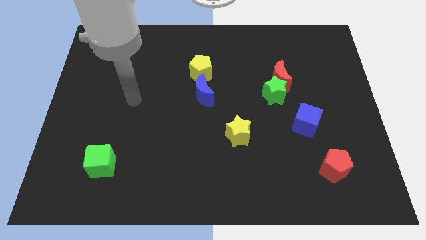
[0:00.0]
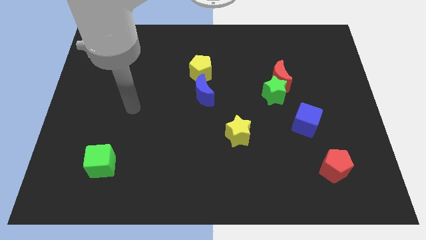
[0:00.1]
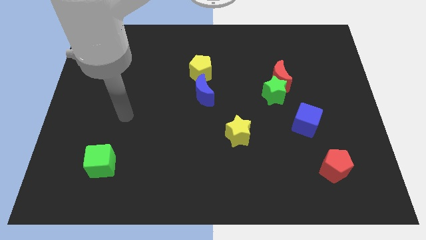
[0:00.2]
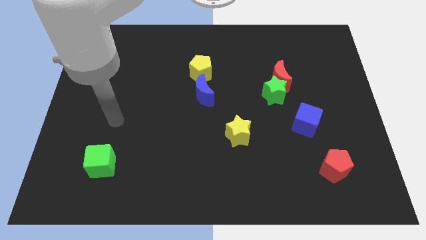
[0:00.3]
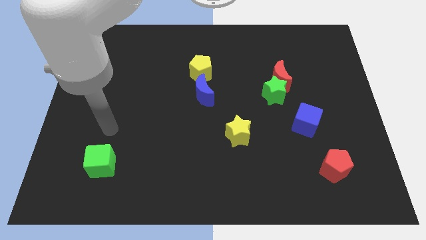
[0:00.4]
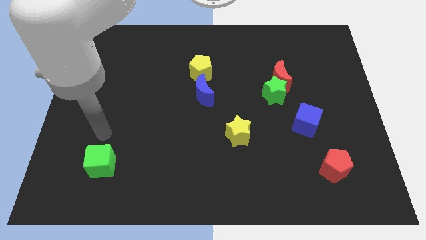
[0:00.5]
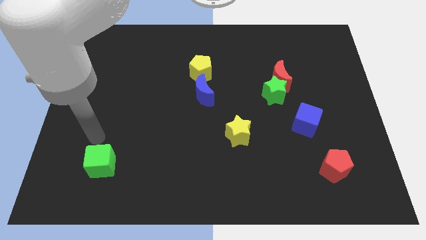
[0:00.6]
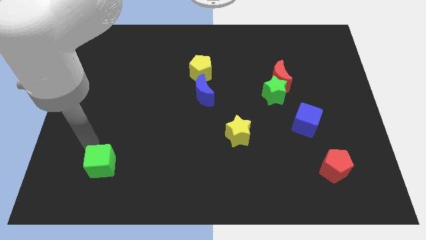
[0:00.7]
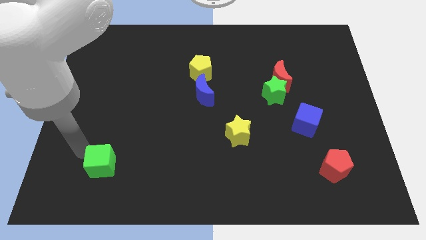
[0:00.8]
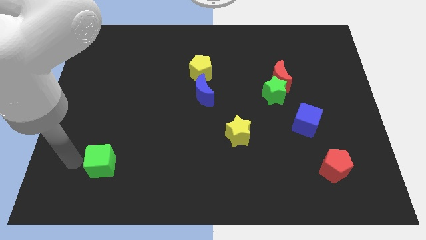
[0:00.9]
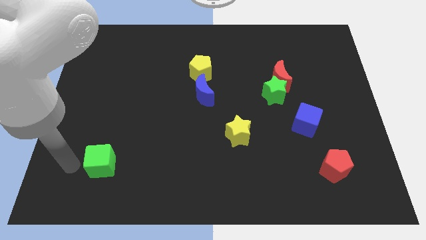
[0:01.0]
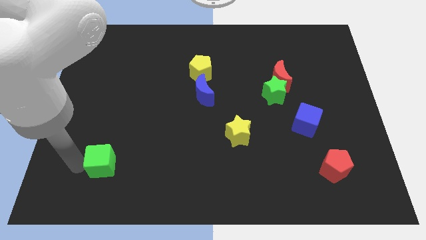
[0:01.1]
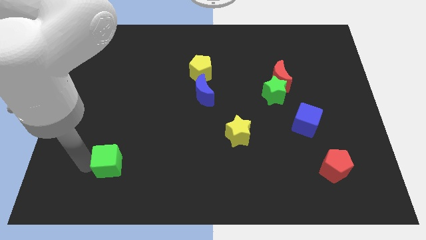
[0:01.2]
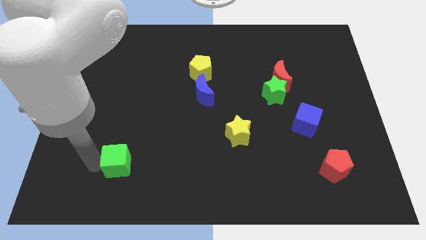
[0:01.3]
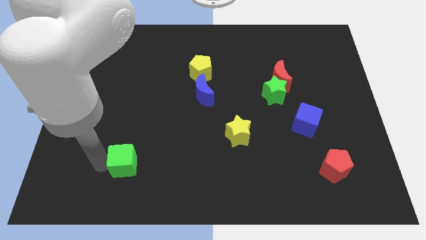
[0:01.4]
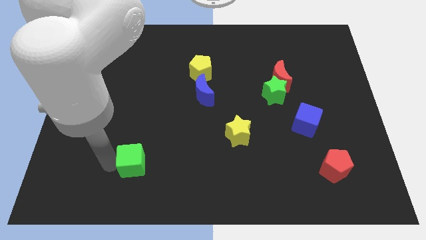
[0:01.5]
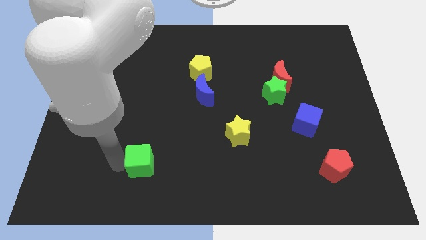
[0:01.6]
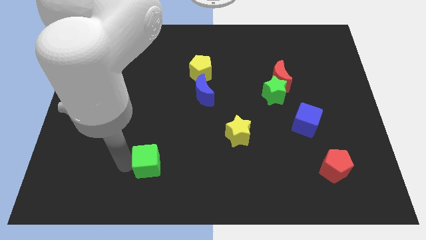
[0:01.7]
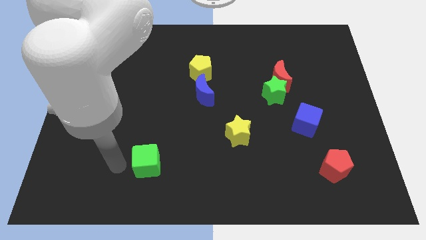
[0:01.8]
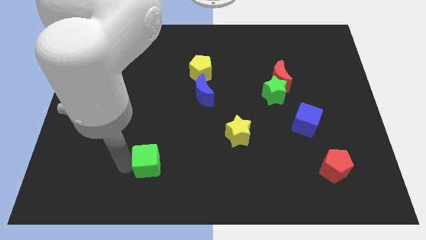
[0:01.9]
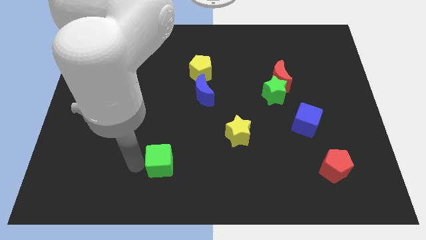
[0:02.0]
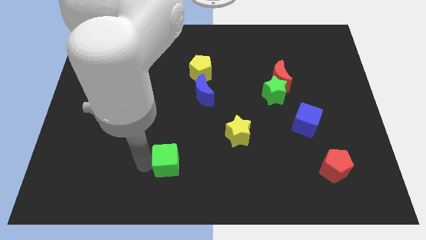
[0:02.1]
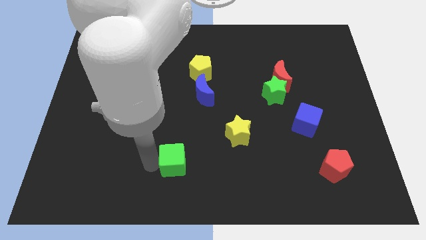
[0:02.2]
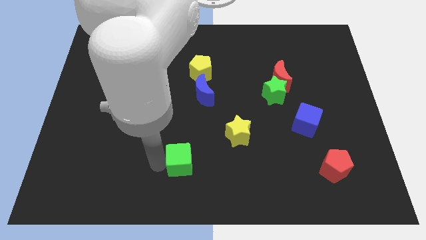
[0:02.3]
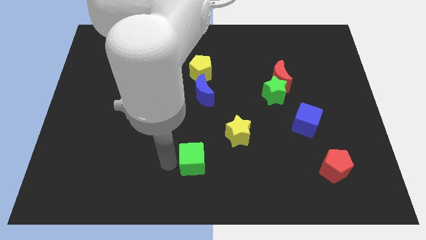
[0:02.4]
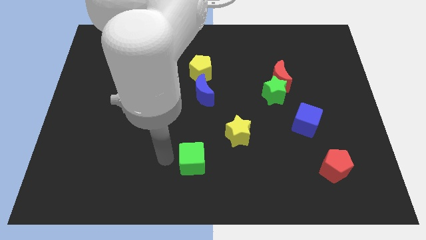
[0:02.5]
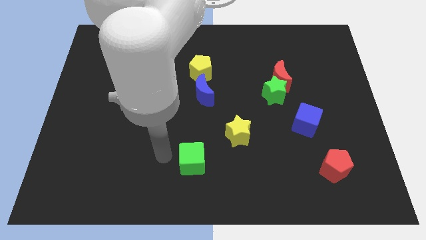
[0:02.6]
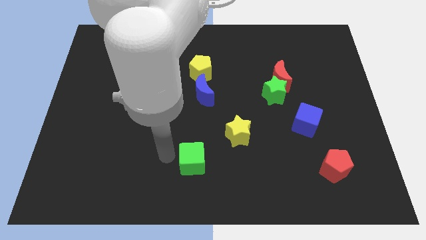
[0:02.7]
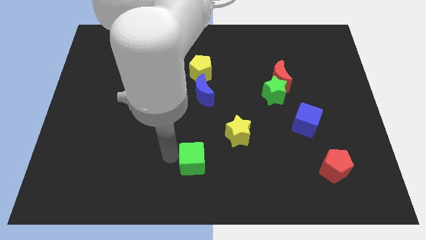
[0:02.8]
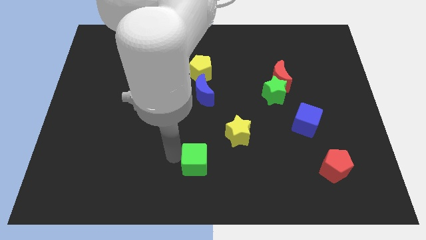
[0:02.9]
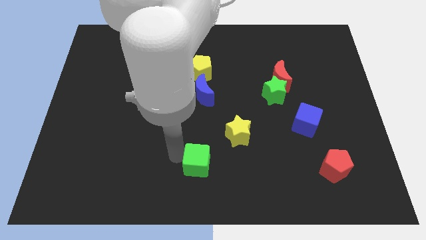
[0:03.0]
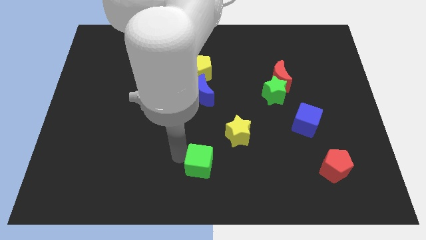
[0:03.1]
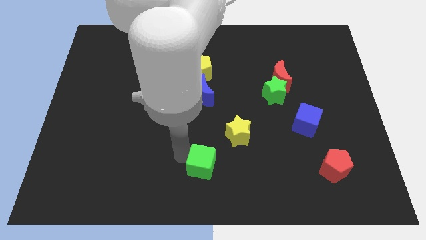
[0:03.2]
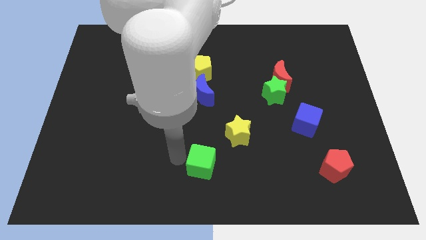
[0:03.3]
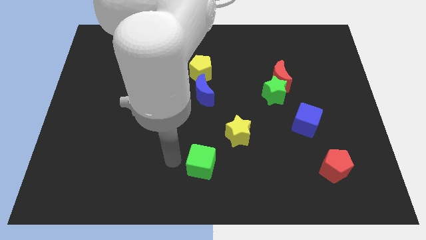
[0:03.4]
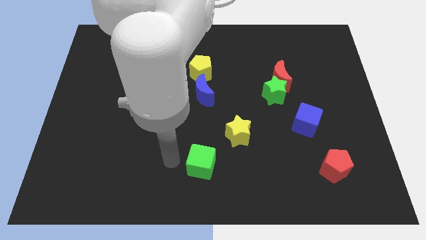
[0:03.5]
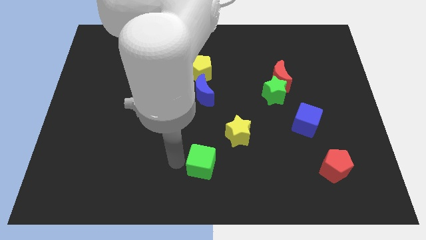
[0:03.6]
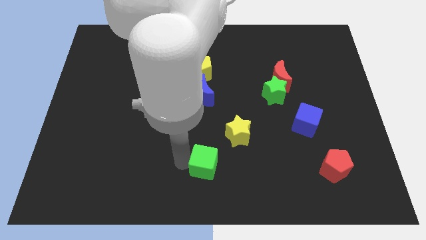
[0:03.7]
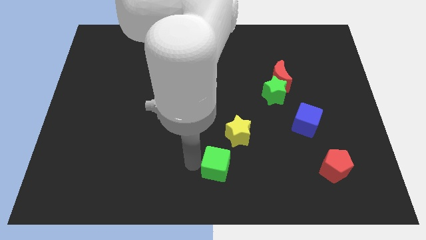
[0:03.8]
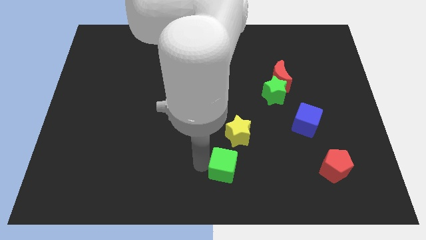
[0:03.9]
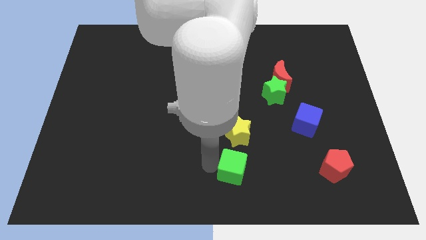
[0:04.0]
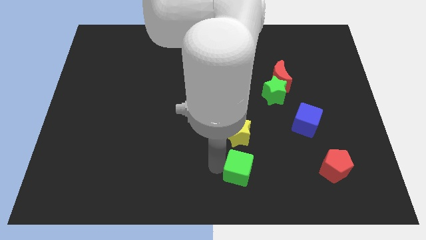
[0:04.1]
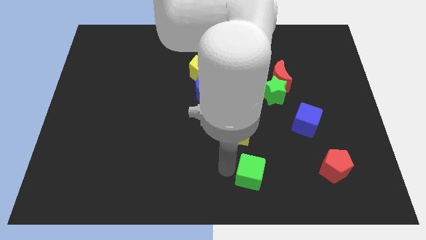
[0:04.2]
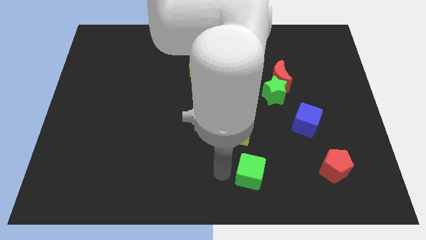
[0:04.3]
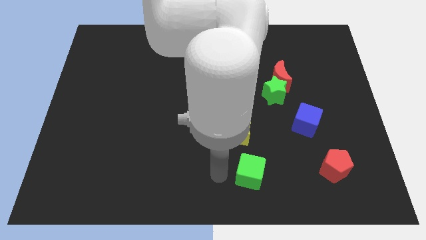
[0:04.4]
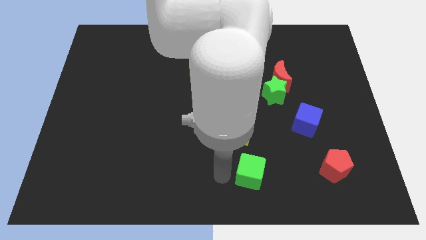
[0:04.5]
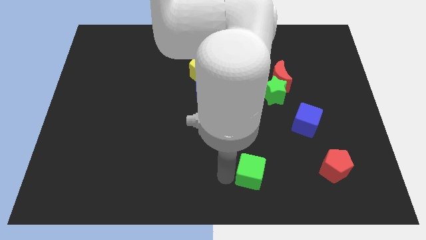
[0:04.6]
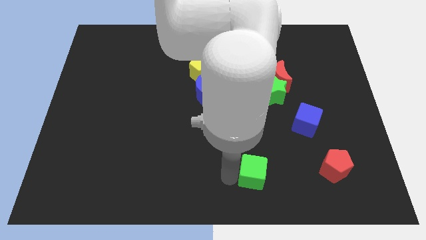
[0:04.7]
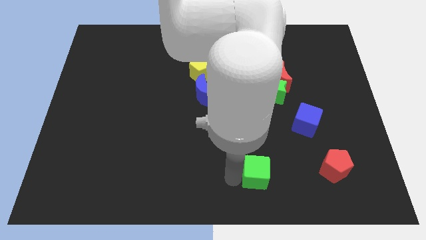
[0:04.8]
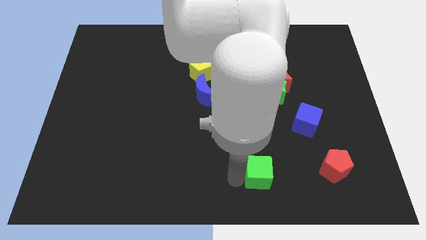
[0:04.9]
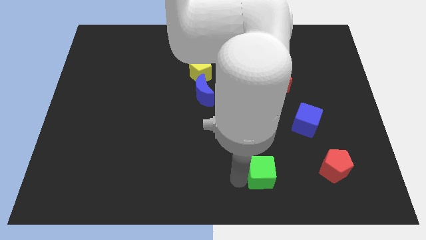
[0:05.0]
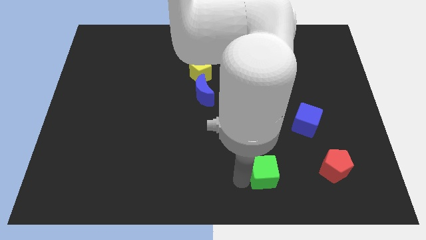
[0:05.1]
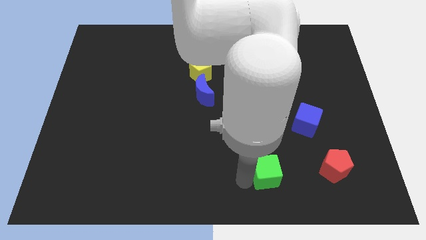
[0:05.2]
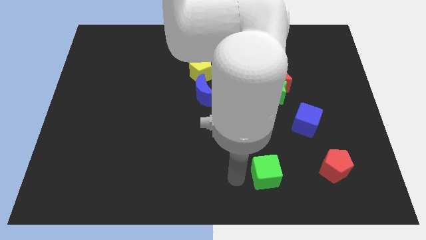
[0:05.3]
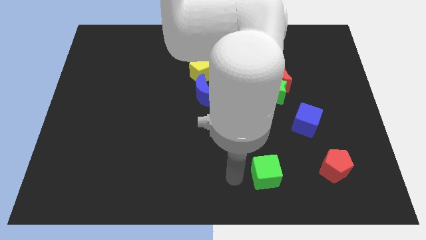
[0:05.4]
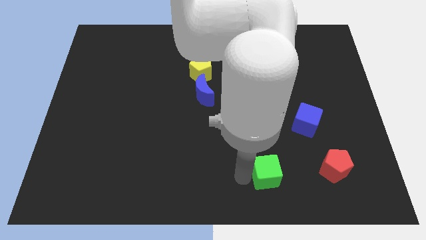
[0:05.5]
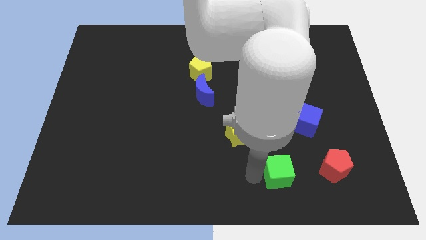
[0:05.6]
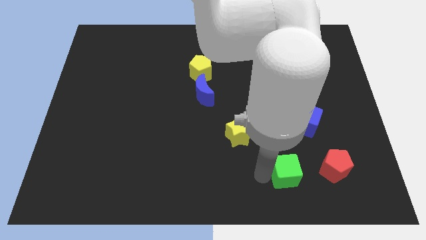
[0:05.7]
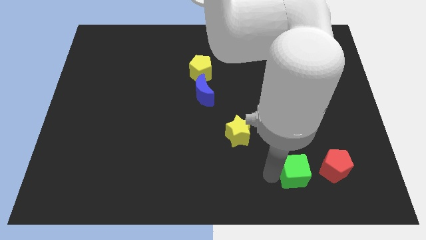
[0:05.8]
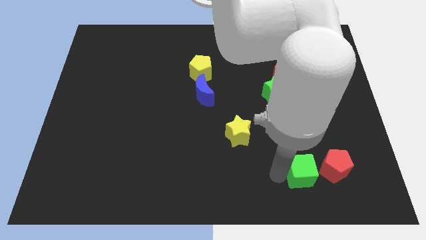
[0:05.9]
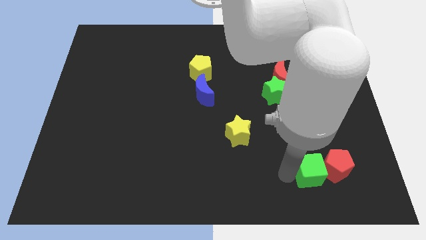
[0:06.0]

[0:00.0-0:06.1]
move the green cube next to the red pentagon

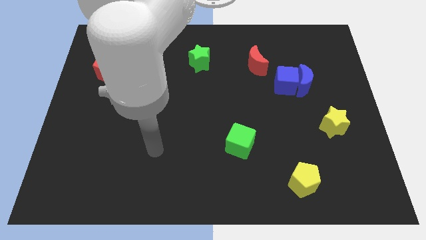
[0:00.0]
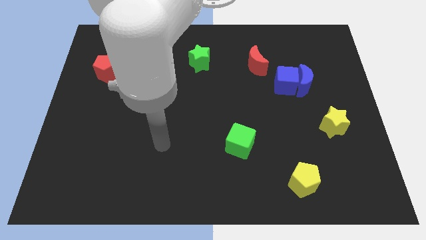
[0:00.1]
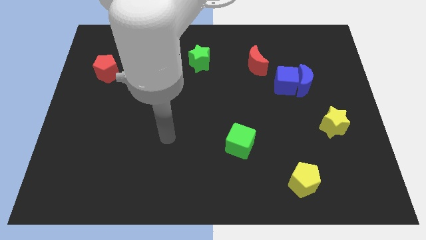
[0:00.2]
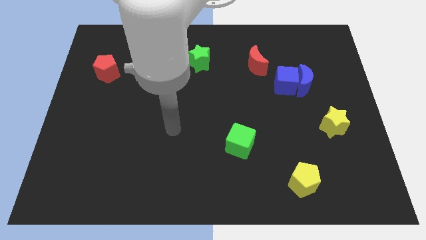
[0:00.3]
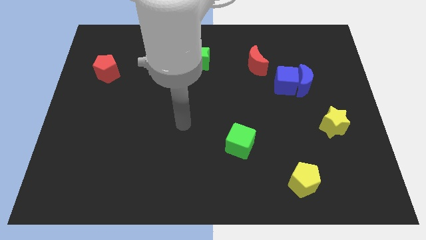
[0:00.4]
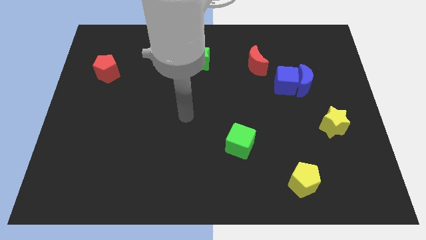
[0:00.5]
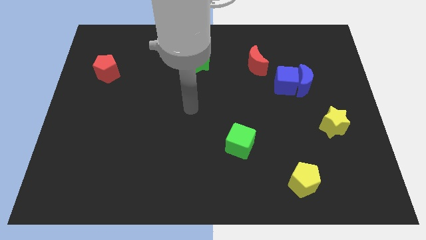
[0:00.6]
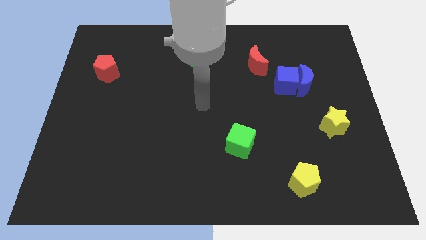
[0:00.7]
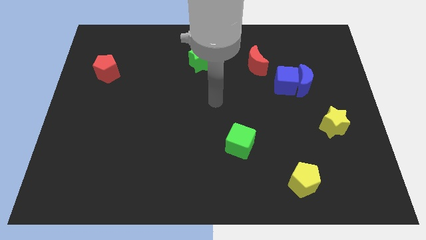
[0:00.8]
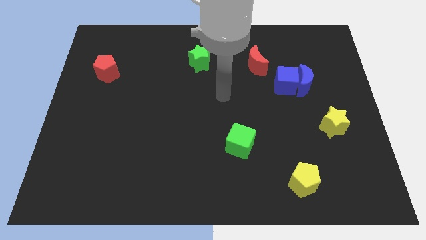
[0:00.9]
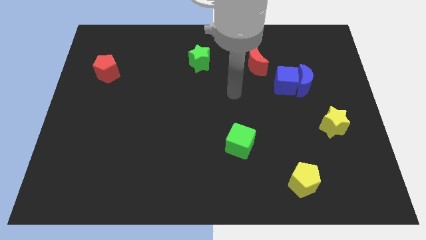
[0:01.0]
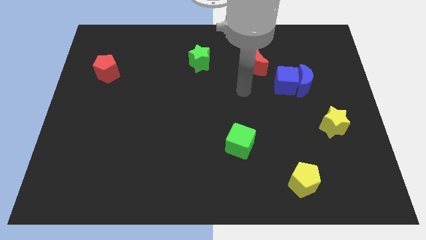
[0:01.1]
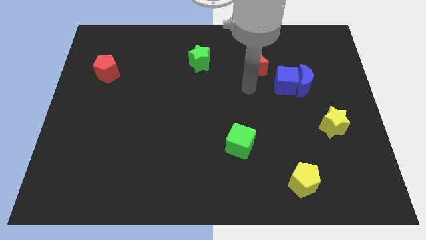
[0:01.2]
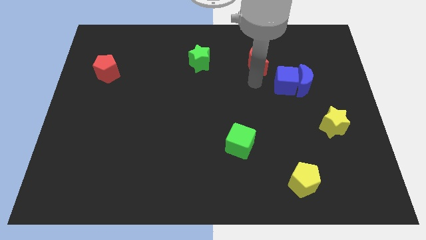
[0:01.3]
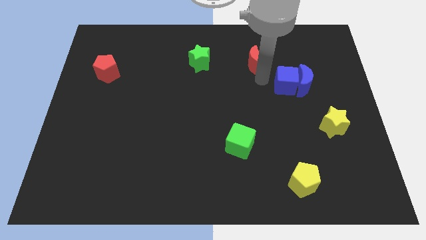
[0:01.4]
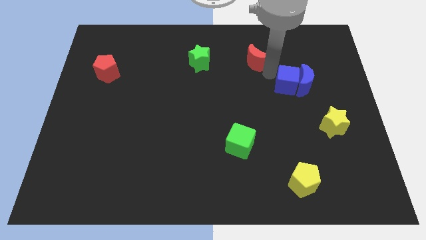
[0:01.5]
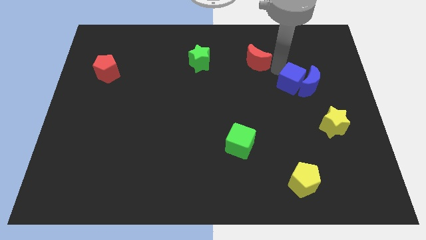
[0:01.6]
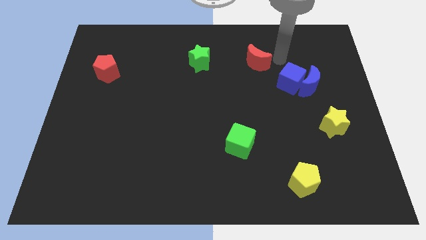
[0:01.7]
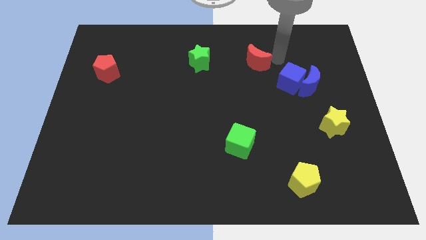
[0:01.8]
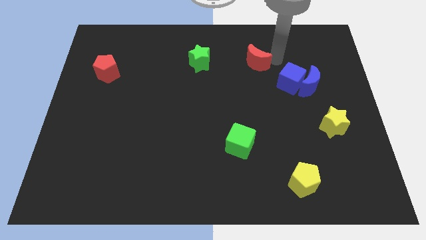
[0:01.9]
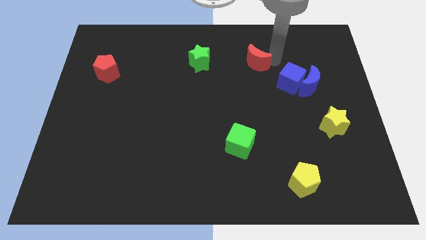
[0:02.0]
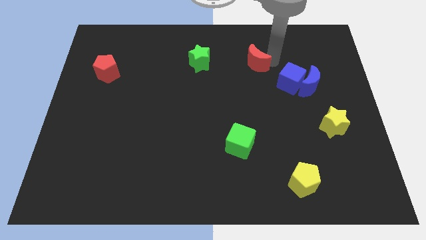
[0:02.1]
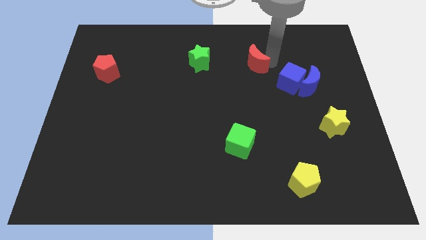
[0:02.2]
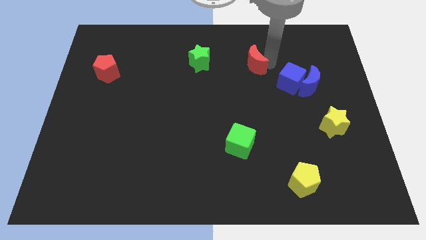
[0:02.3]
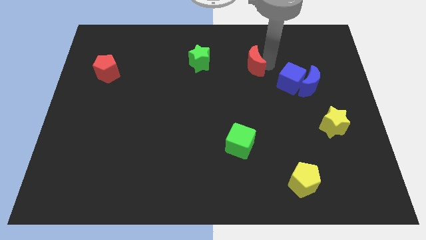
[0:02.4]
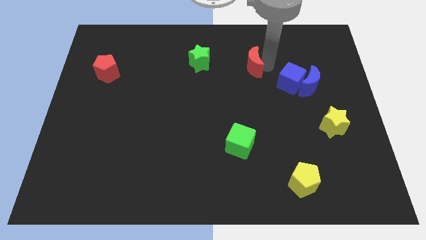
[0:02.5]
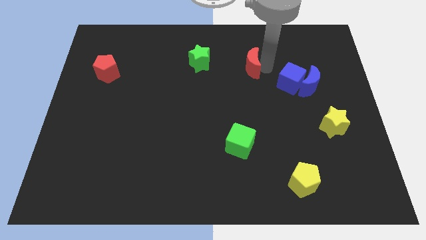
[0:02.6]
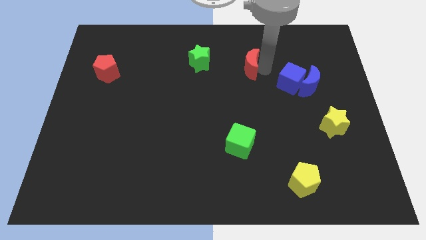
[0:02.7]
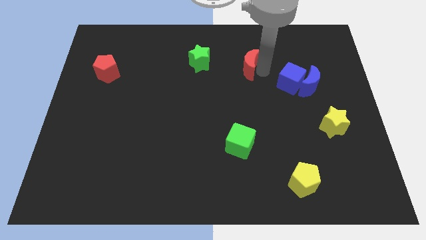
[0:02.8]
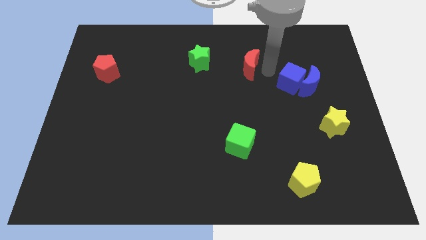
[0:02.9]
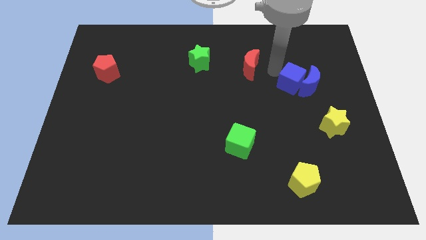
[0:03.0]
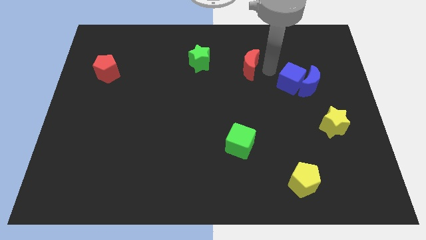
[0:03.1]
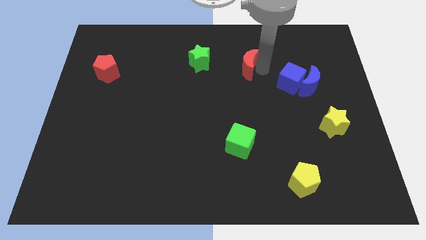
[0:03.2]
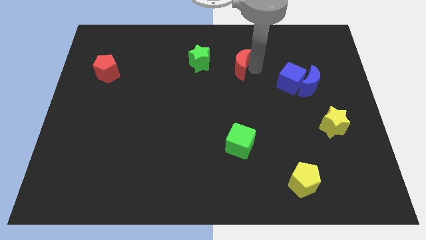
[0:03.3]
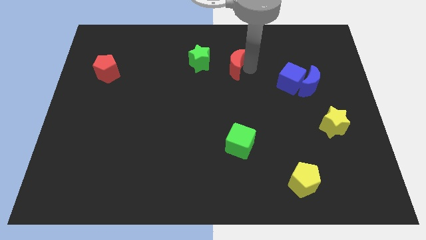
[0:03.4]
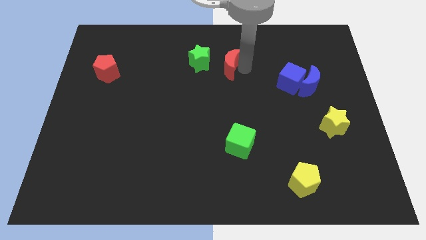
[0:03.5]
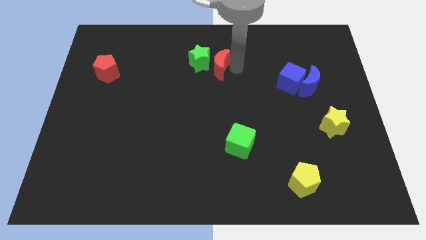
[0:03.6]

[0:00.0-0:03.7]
push the red moon close to the green star
